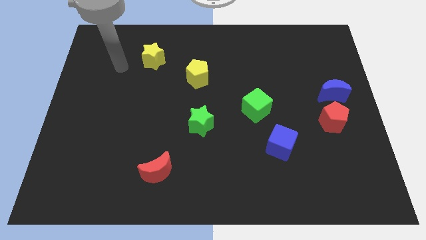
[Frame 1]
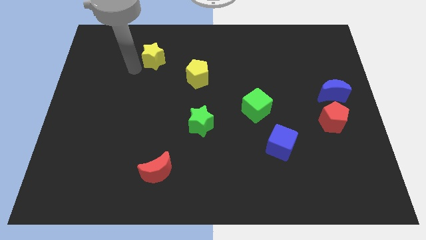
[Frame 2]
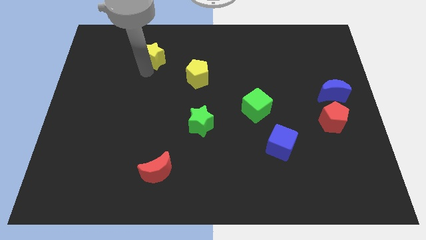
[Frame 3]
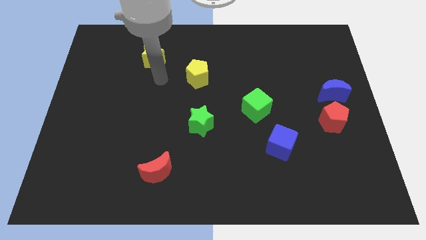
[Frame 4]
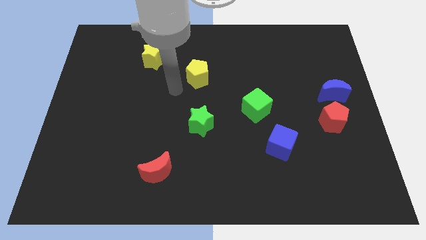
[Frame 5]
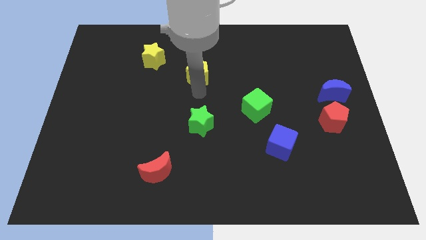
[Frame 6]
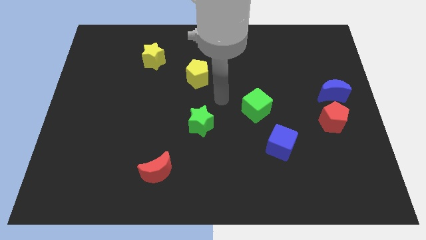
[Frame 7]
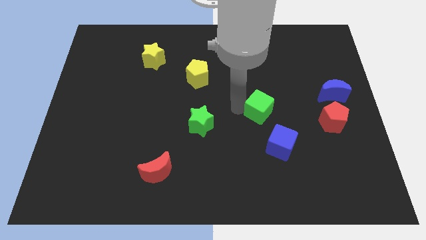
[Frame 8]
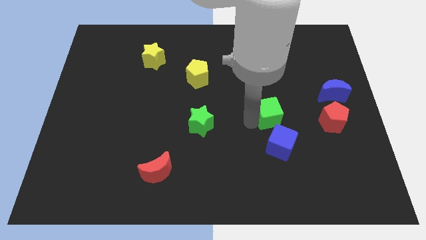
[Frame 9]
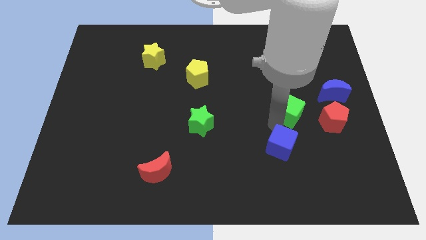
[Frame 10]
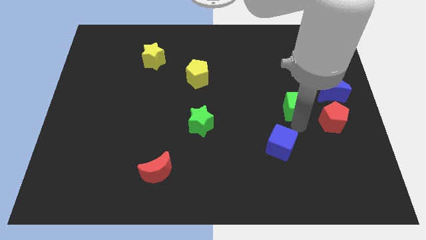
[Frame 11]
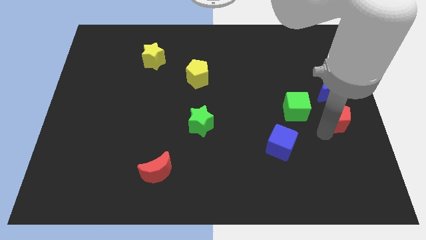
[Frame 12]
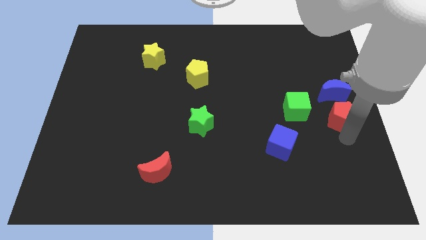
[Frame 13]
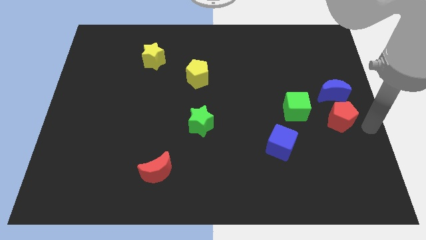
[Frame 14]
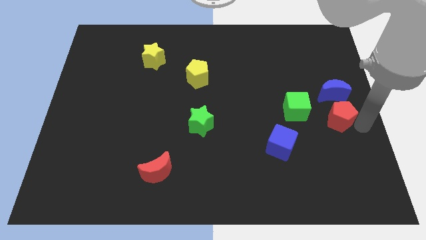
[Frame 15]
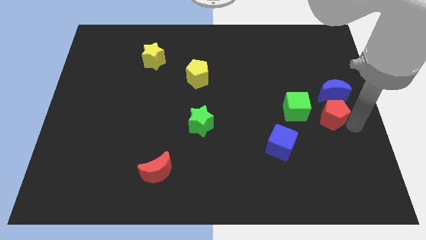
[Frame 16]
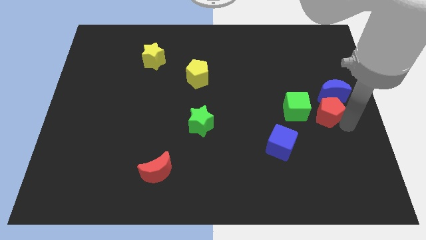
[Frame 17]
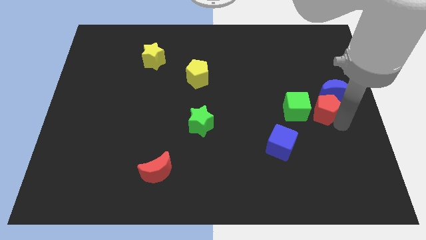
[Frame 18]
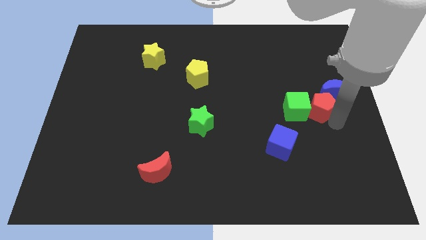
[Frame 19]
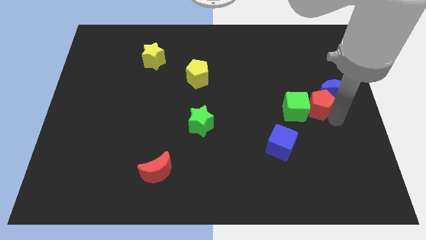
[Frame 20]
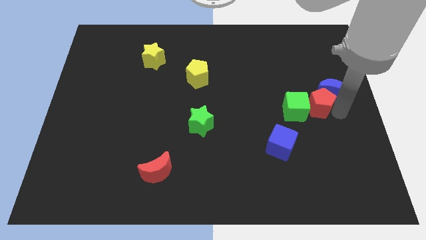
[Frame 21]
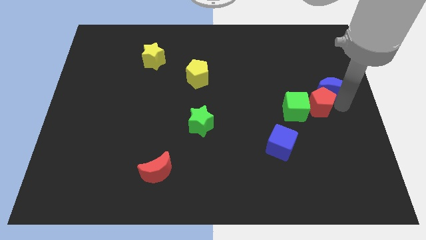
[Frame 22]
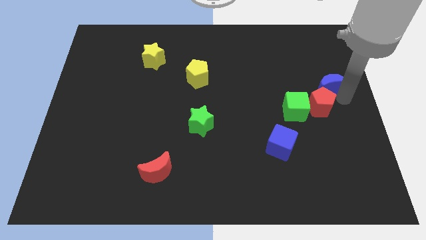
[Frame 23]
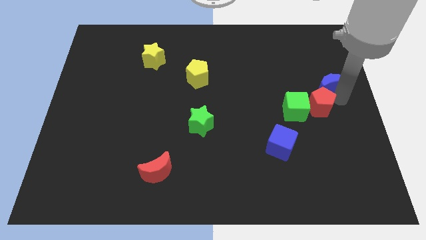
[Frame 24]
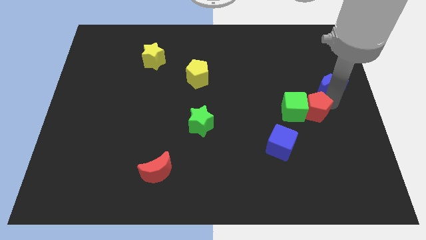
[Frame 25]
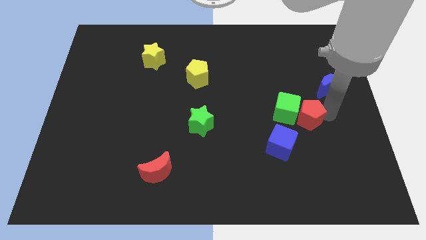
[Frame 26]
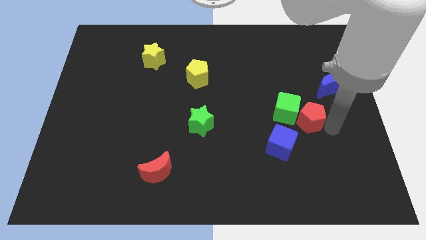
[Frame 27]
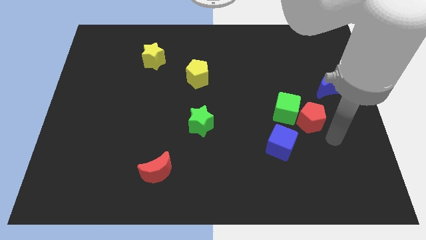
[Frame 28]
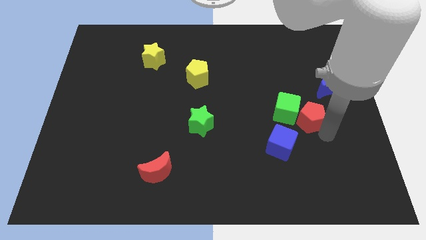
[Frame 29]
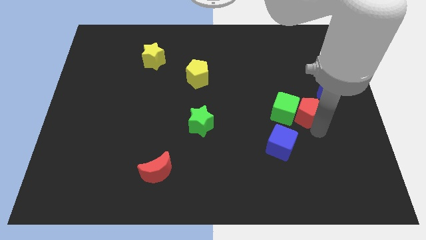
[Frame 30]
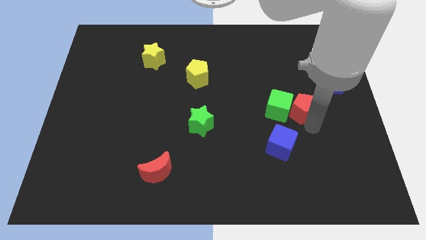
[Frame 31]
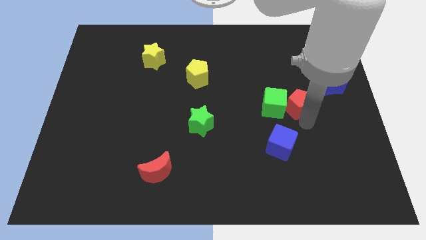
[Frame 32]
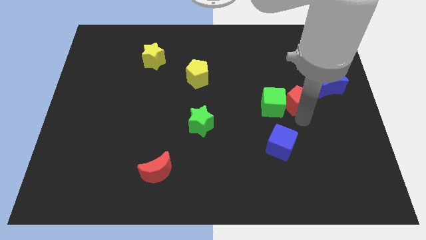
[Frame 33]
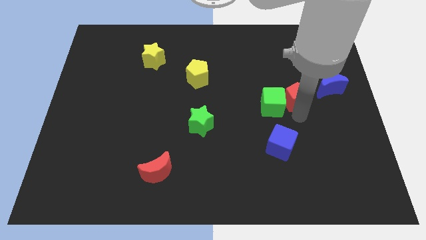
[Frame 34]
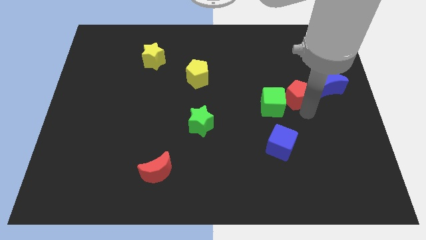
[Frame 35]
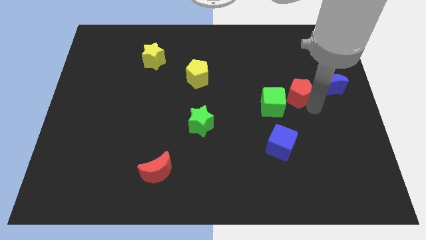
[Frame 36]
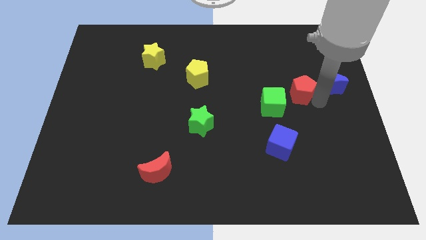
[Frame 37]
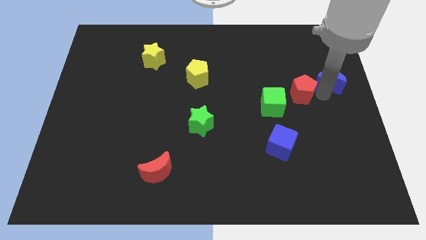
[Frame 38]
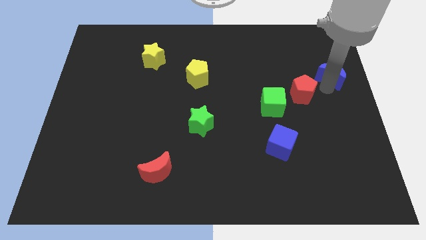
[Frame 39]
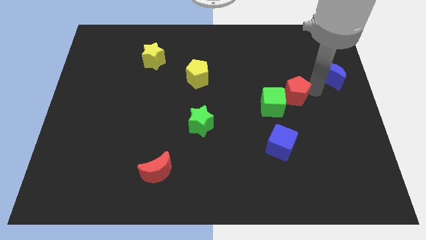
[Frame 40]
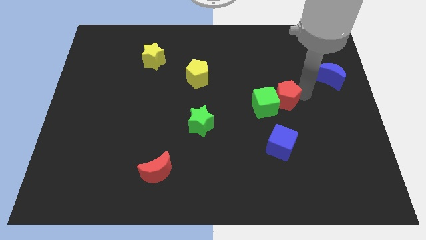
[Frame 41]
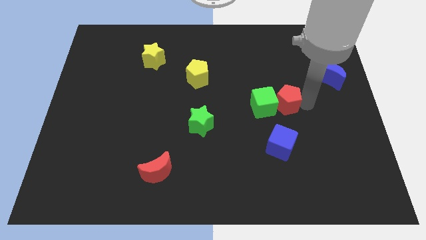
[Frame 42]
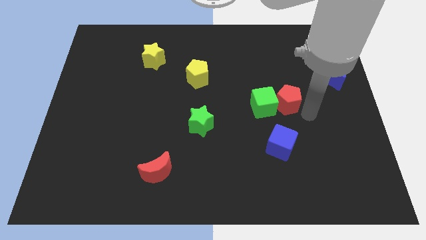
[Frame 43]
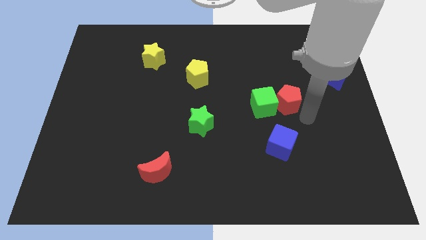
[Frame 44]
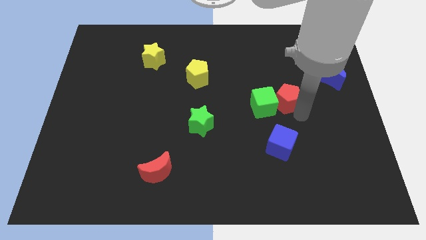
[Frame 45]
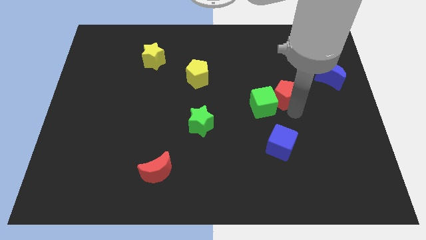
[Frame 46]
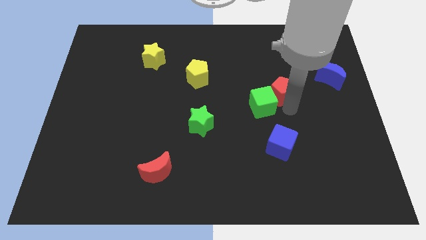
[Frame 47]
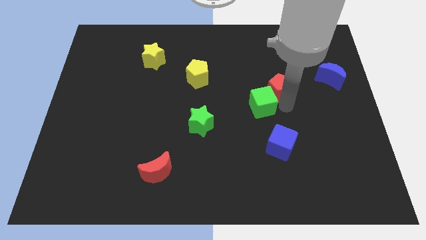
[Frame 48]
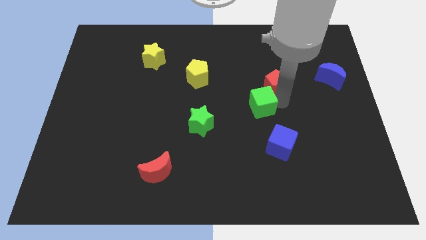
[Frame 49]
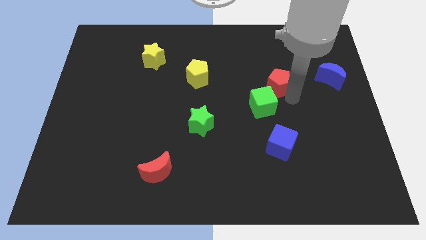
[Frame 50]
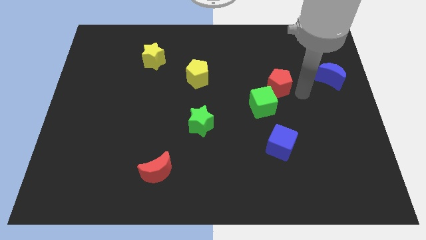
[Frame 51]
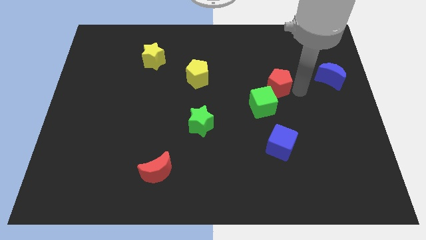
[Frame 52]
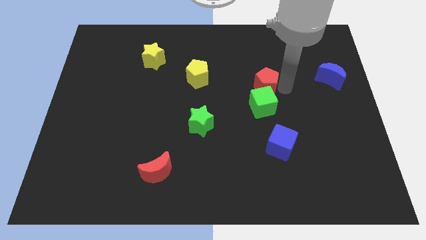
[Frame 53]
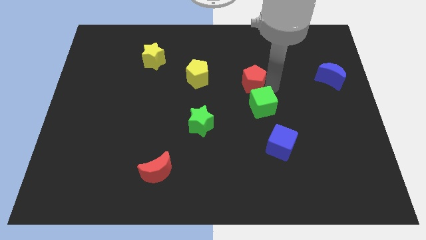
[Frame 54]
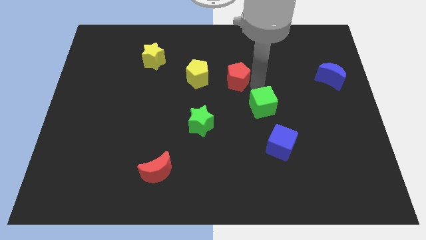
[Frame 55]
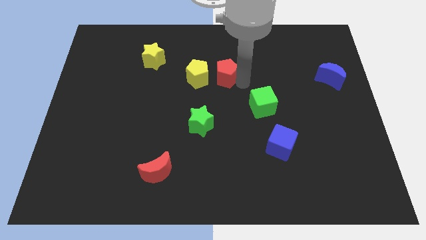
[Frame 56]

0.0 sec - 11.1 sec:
put the red pentagon diagonally up and to the right of the yellow pentagon

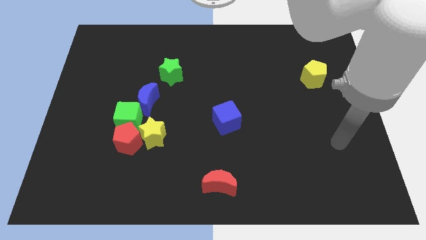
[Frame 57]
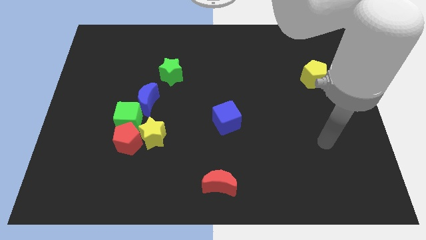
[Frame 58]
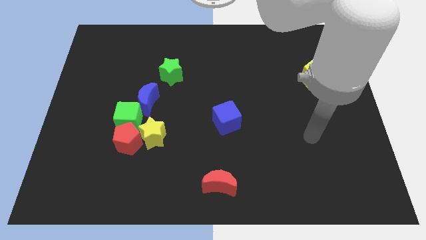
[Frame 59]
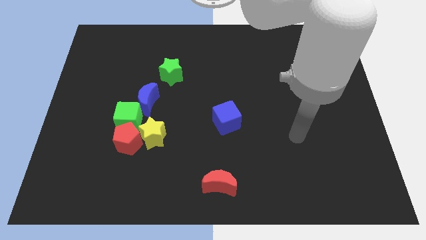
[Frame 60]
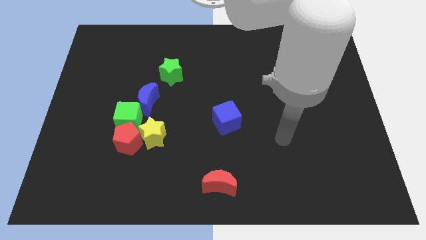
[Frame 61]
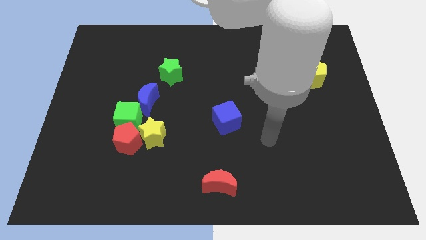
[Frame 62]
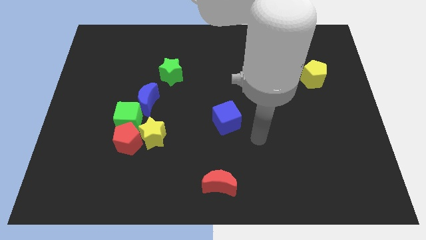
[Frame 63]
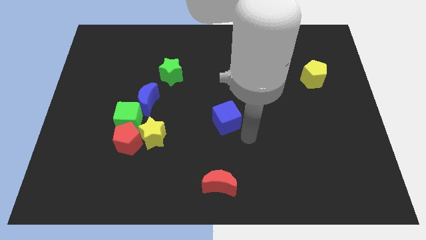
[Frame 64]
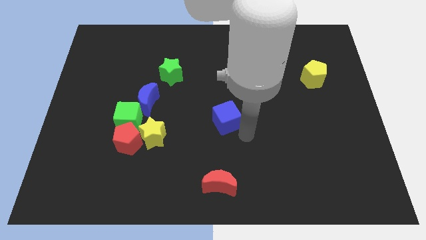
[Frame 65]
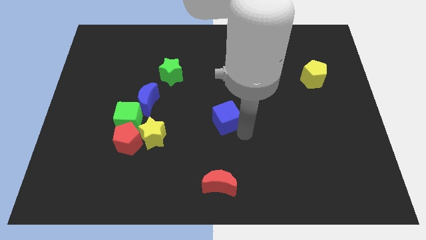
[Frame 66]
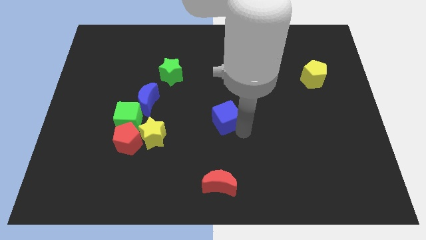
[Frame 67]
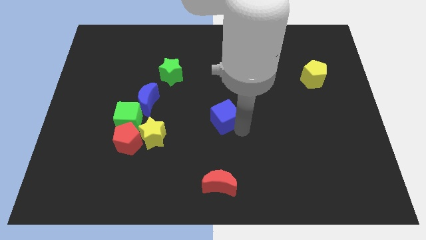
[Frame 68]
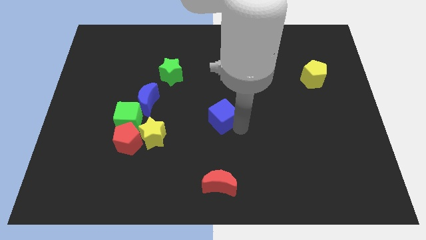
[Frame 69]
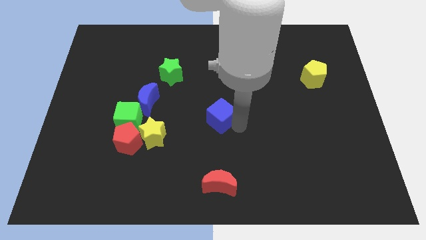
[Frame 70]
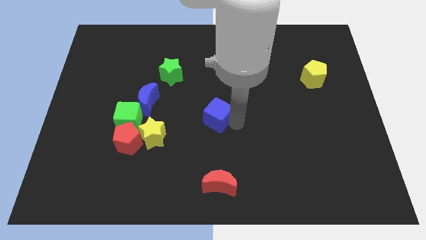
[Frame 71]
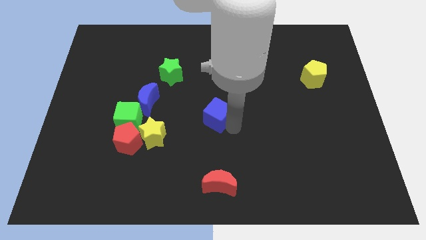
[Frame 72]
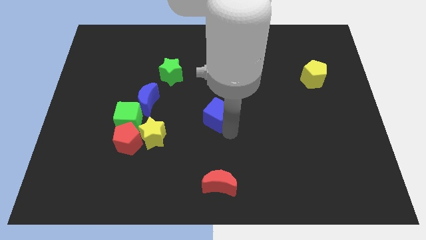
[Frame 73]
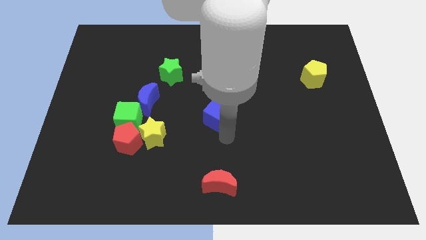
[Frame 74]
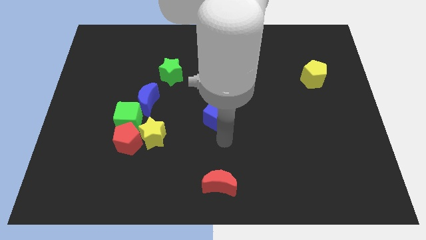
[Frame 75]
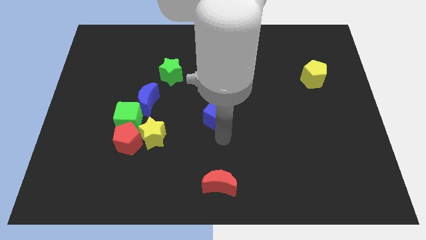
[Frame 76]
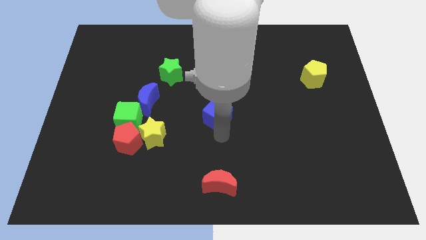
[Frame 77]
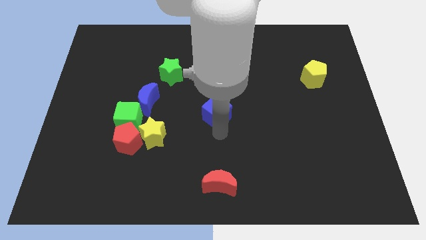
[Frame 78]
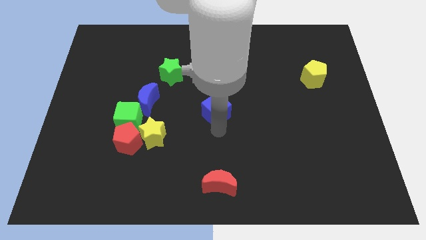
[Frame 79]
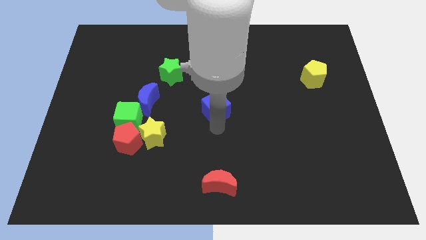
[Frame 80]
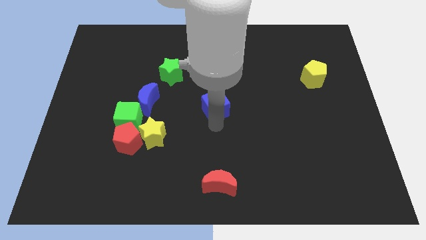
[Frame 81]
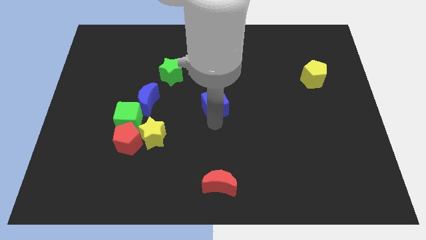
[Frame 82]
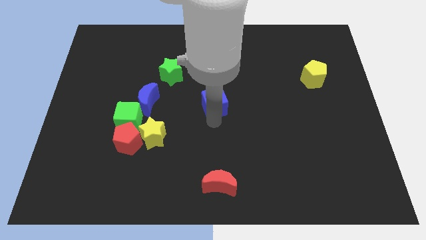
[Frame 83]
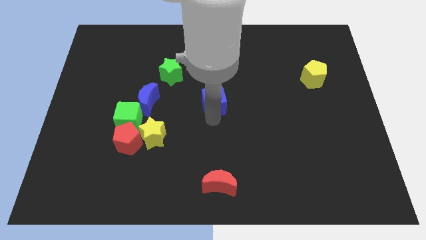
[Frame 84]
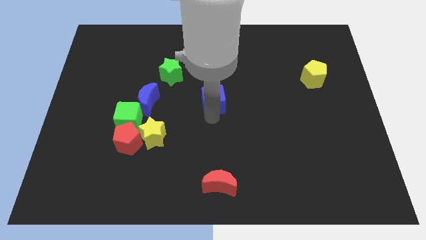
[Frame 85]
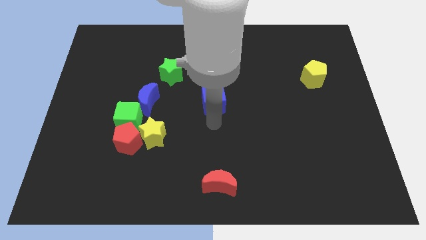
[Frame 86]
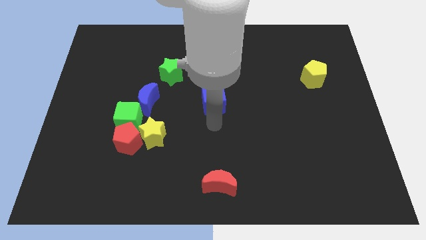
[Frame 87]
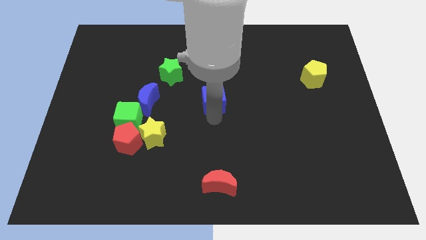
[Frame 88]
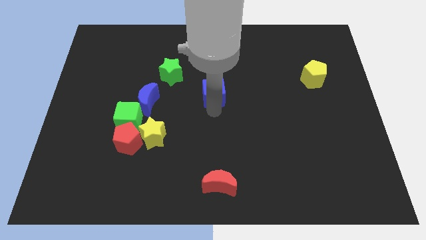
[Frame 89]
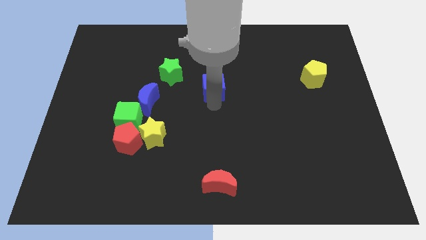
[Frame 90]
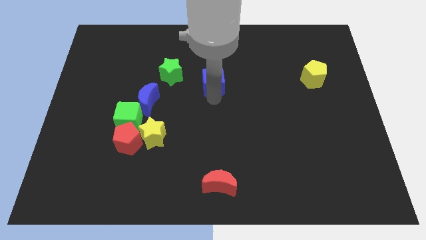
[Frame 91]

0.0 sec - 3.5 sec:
push the blue cube to the right of the green star
